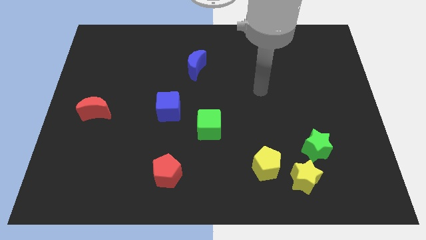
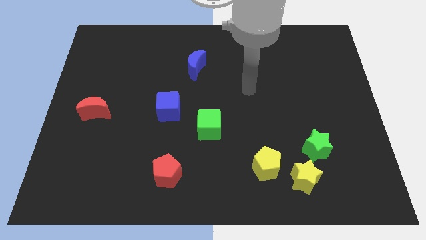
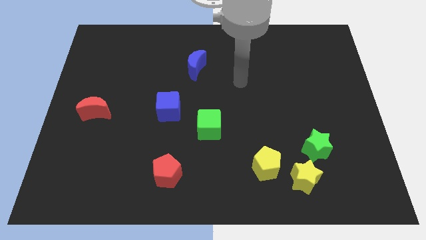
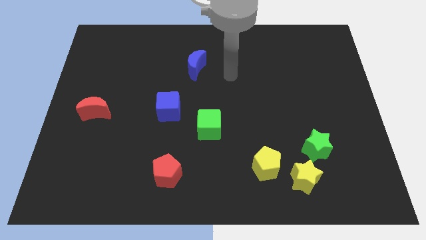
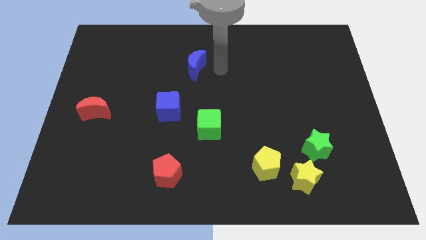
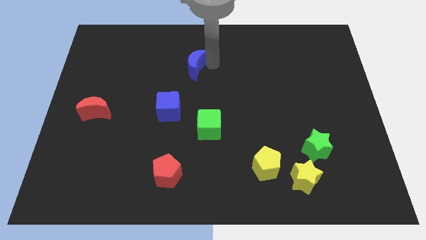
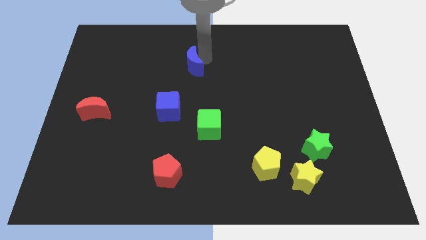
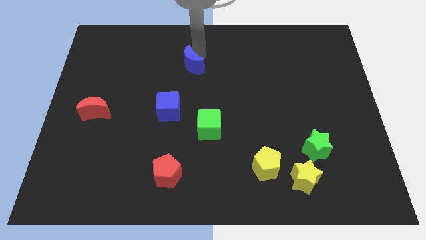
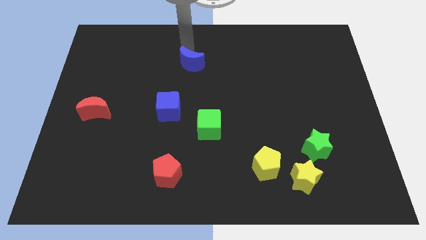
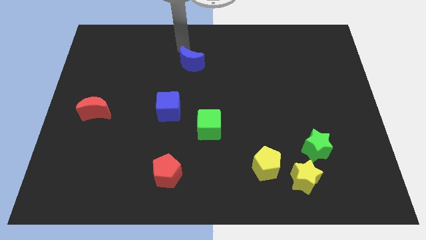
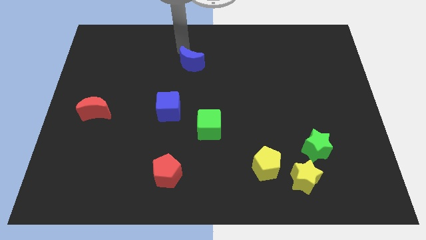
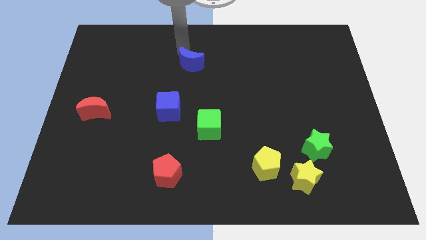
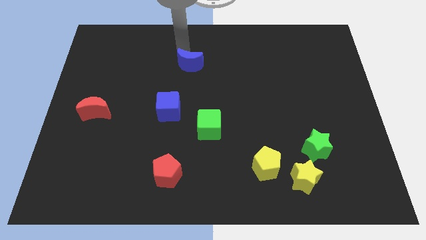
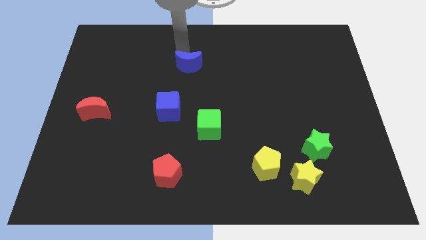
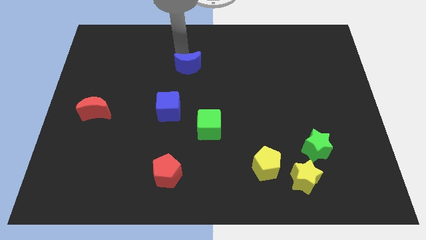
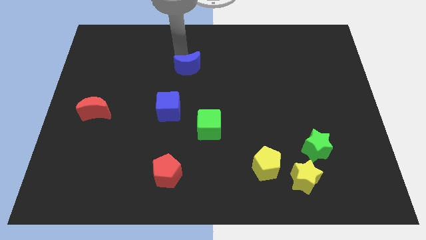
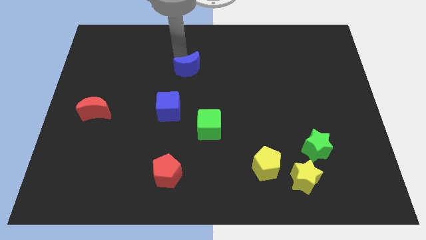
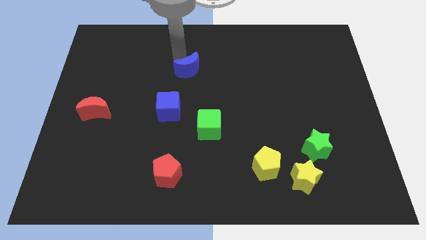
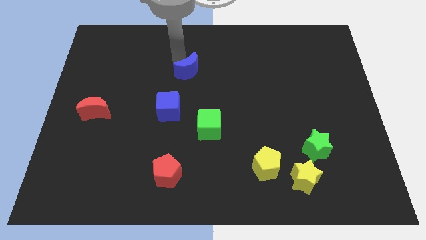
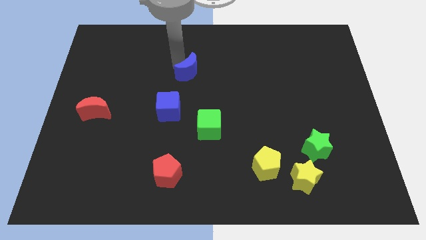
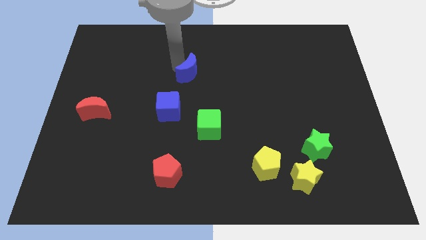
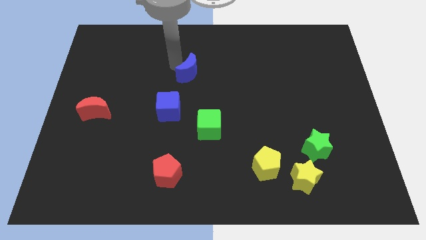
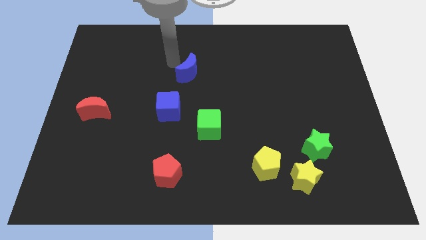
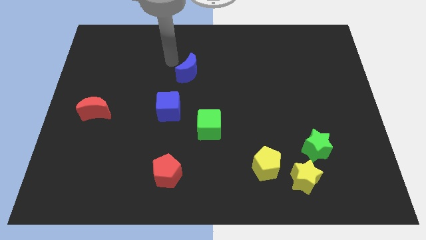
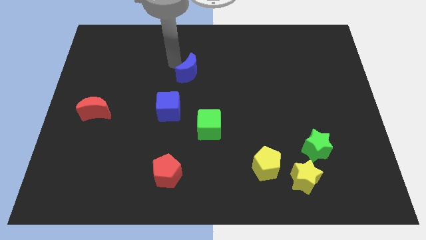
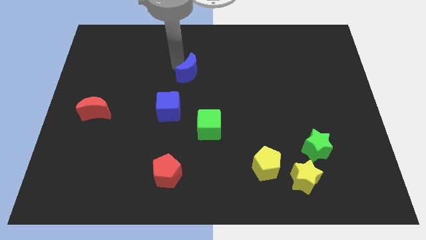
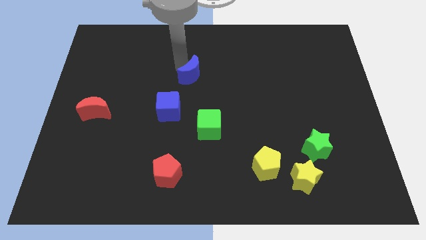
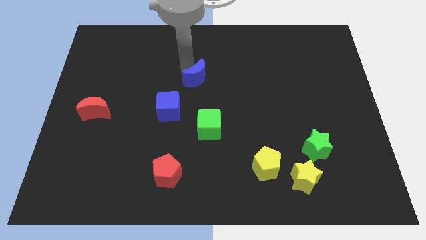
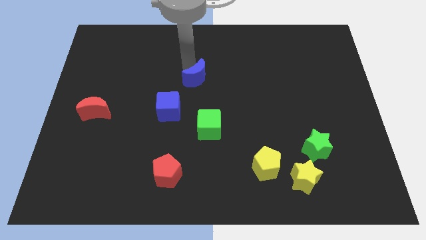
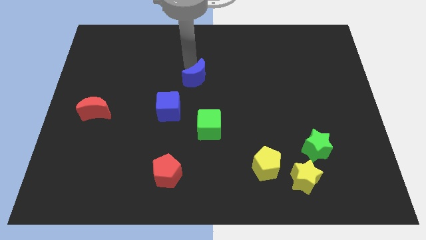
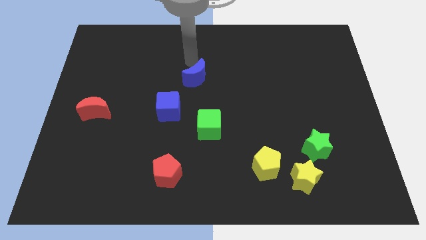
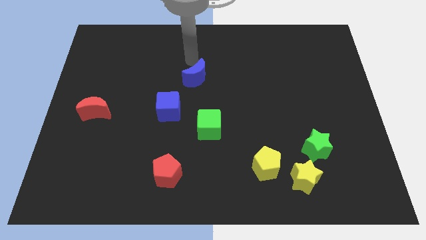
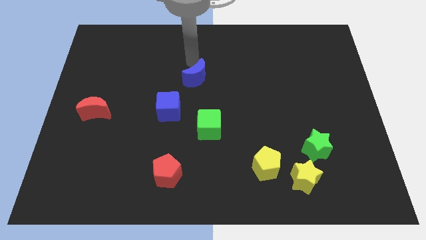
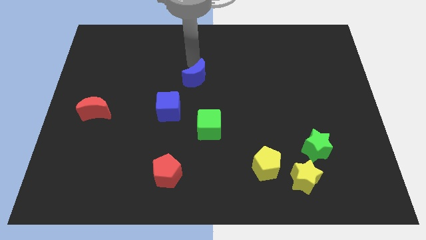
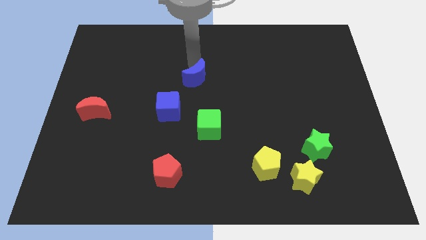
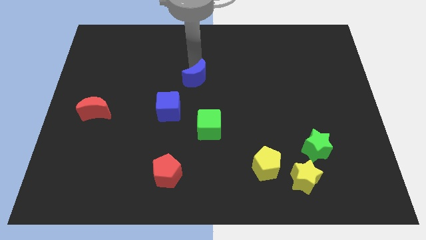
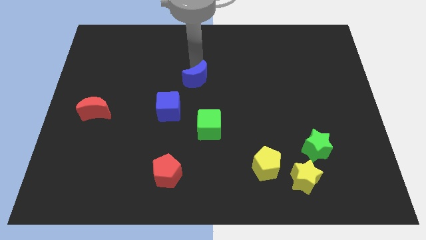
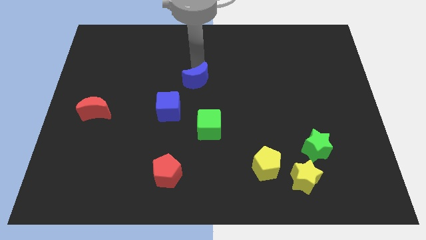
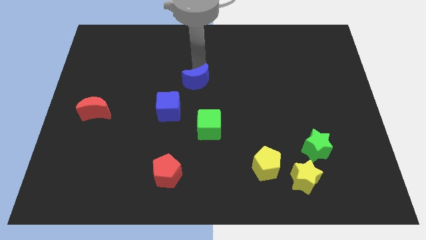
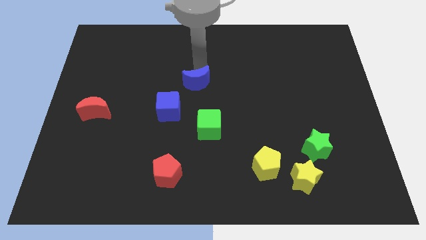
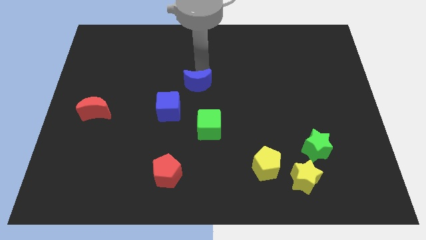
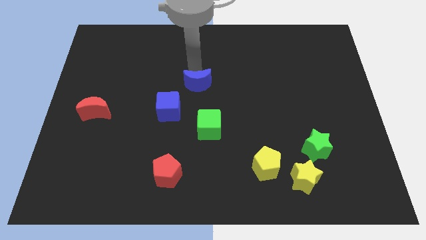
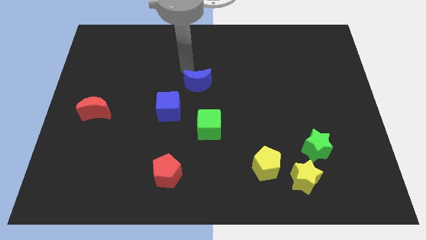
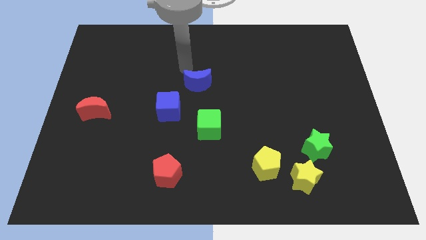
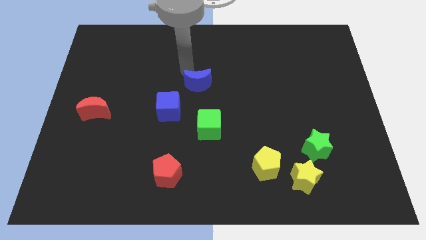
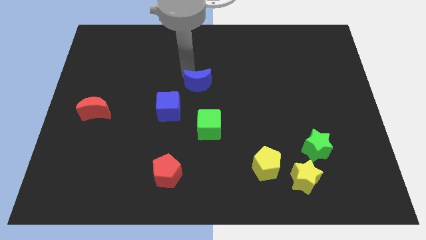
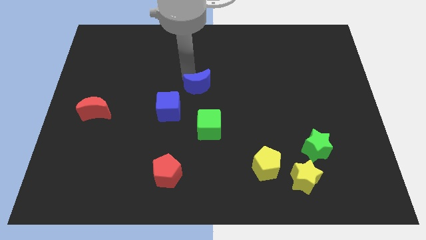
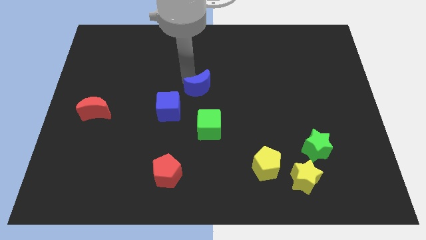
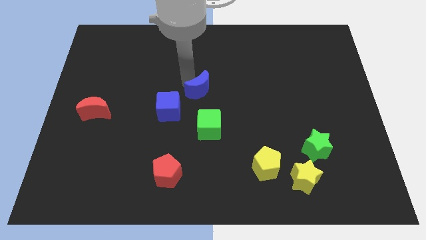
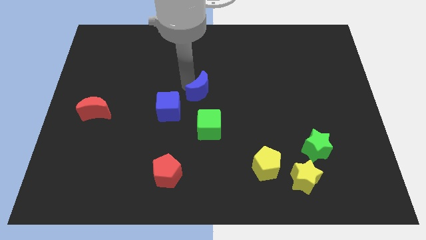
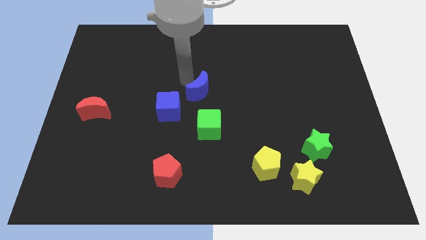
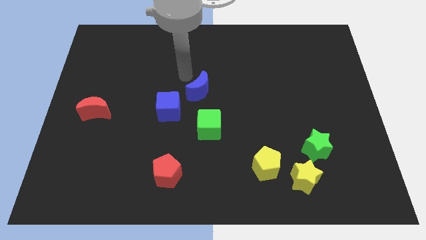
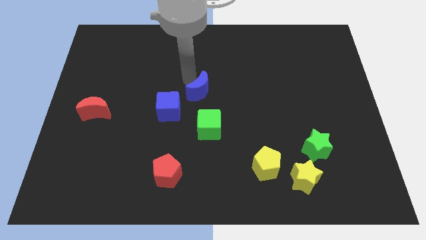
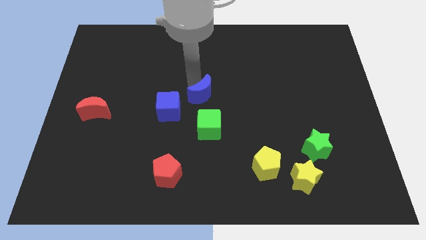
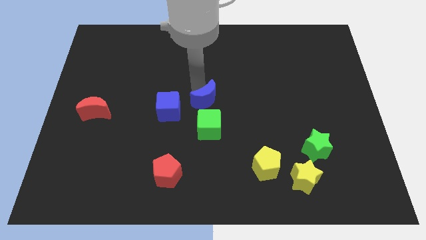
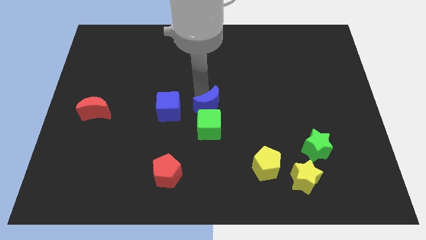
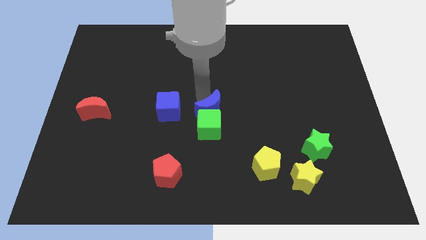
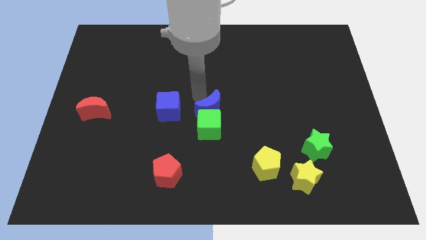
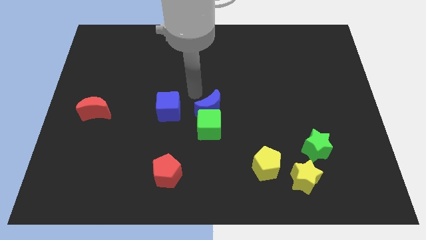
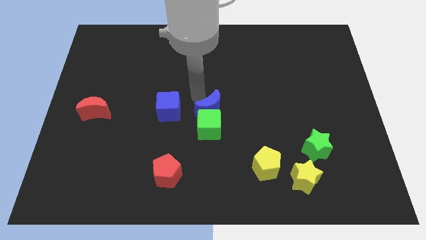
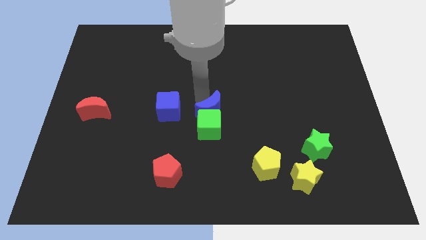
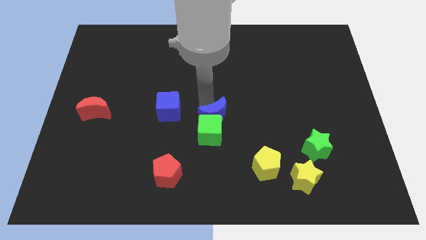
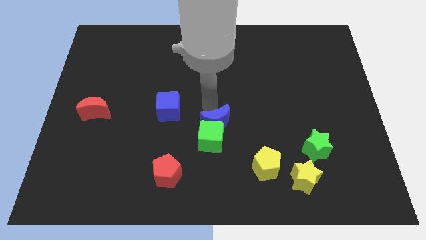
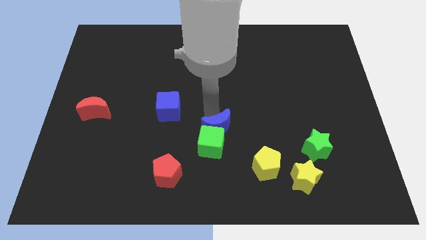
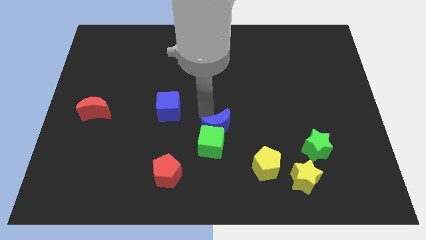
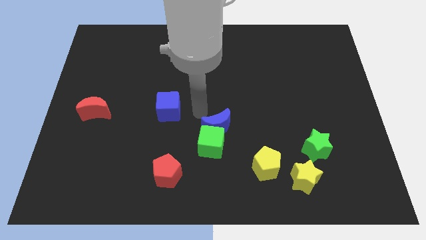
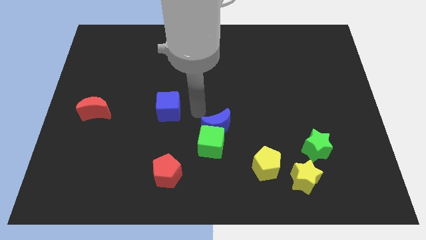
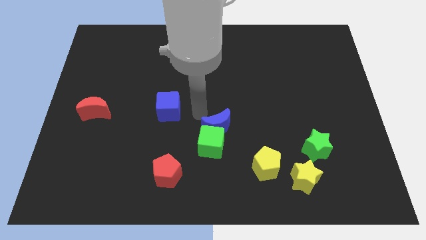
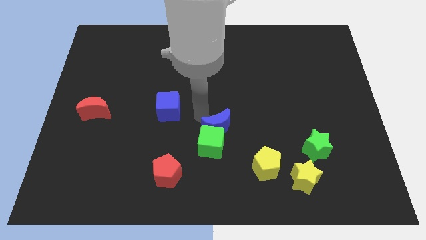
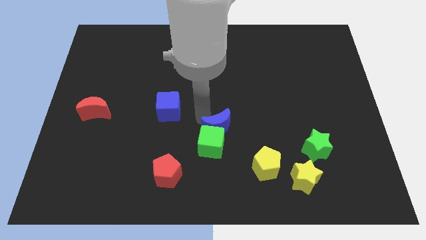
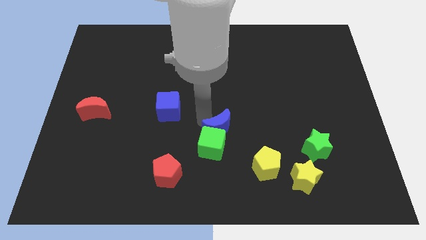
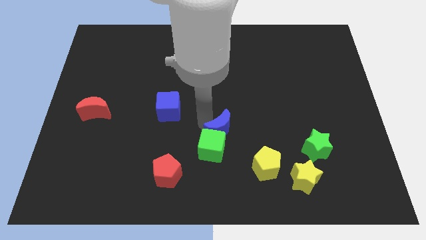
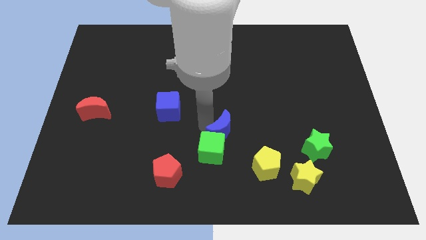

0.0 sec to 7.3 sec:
move the blue moon to the top left of the yellow pentagon
